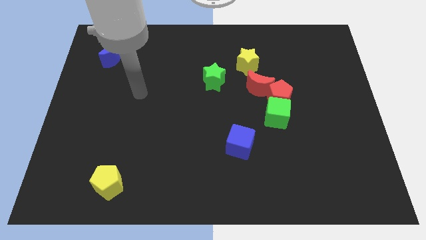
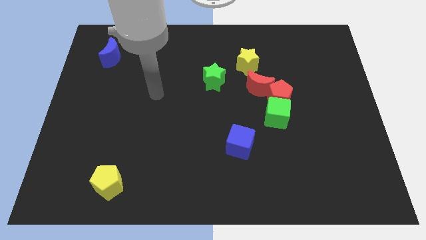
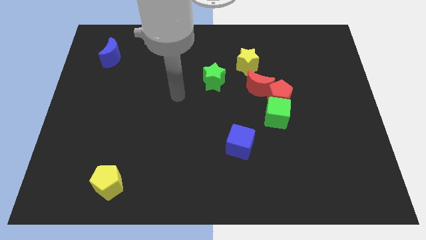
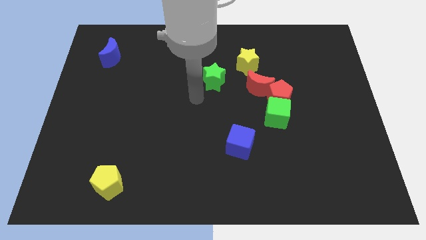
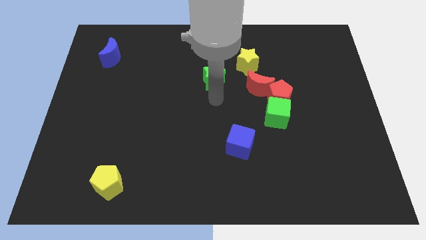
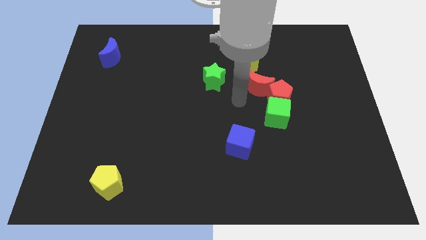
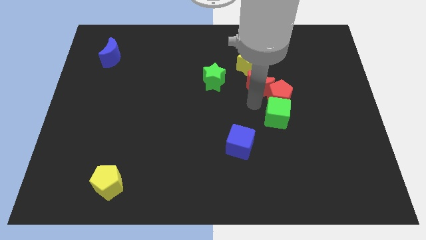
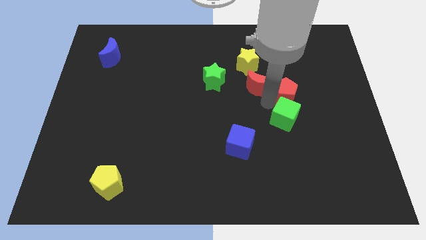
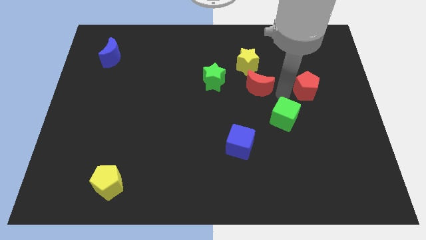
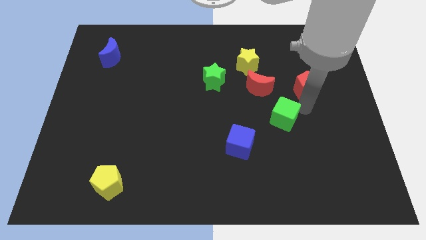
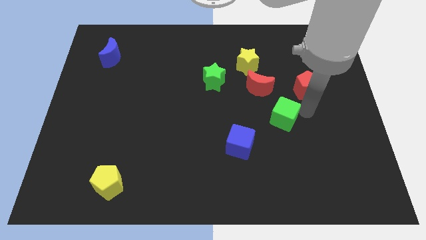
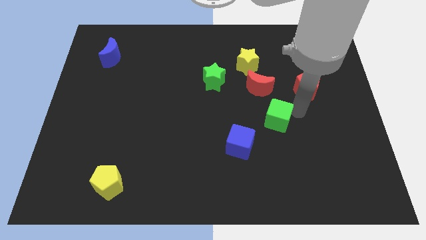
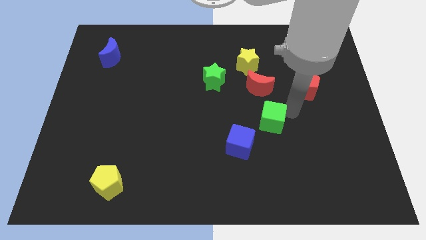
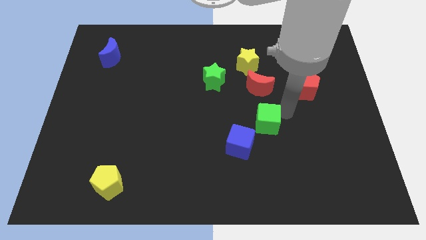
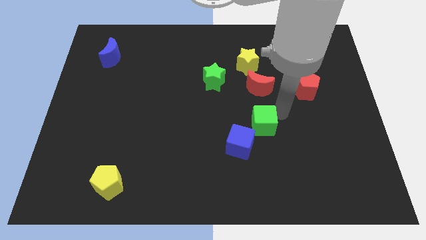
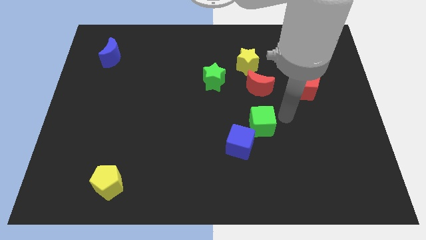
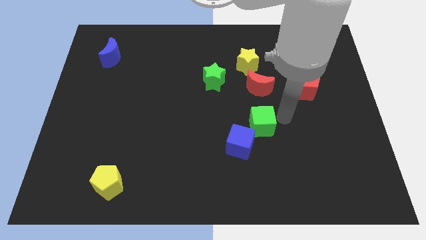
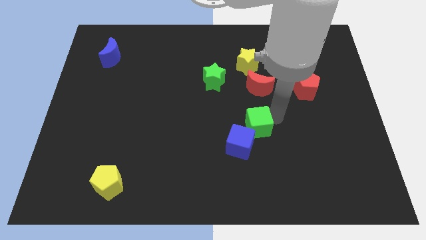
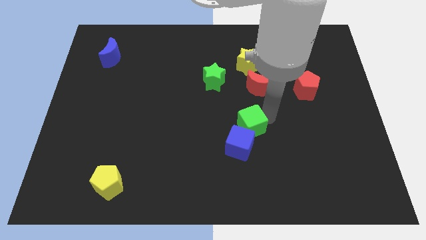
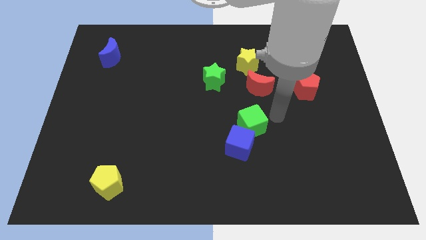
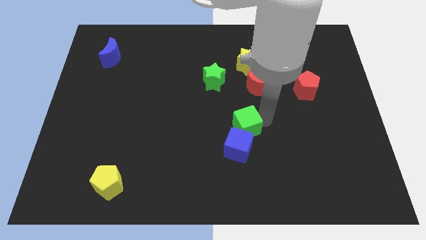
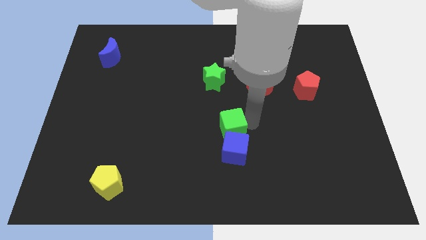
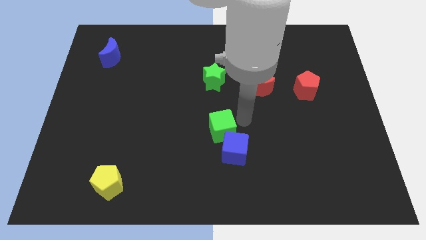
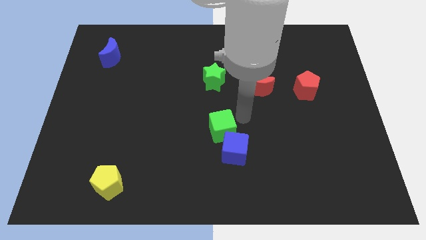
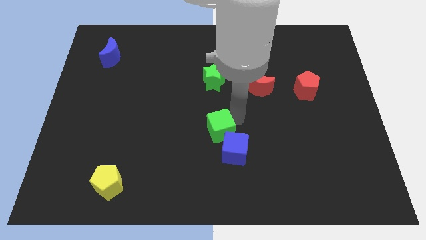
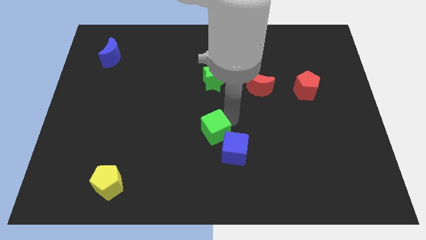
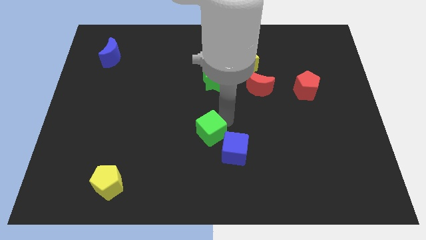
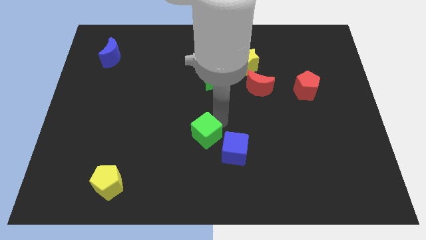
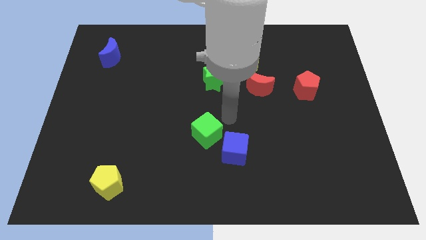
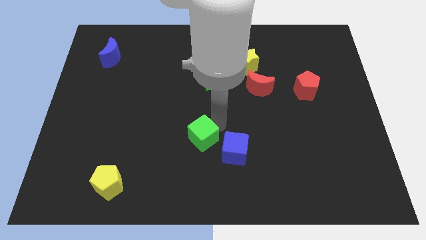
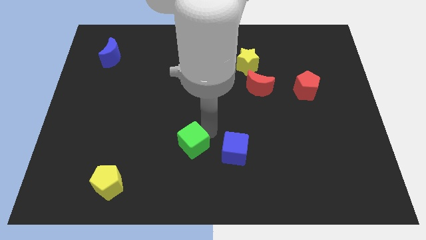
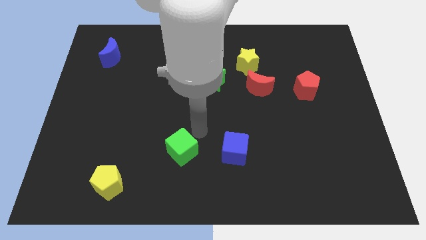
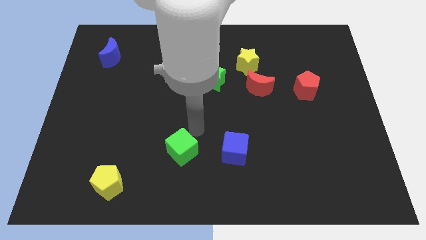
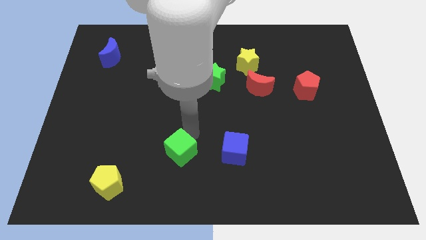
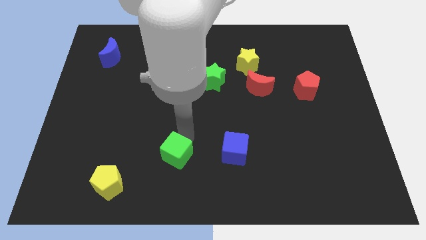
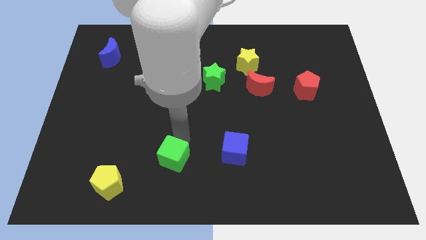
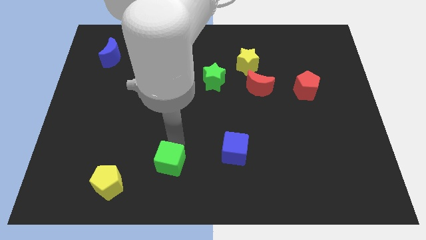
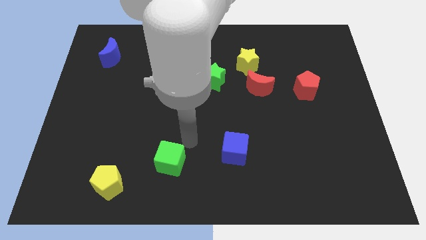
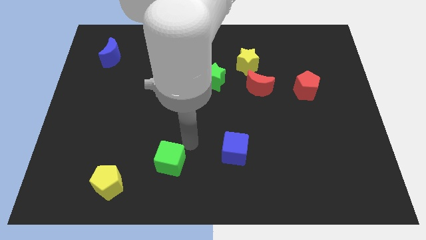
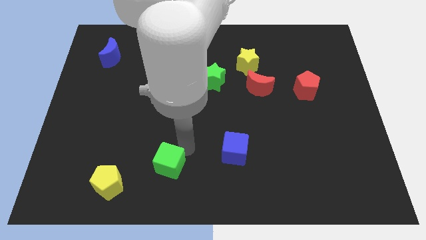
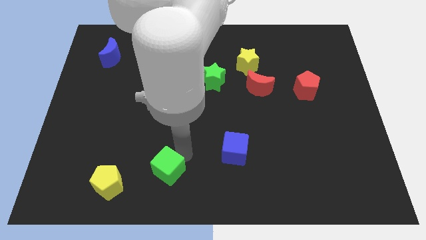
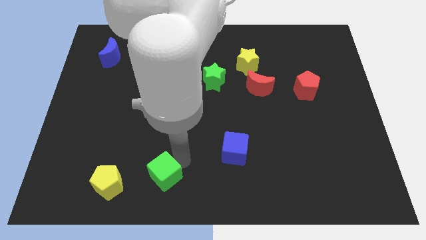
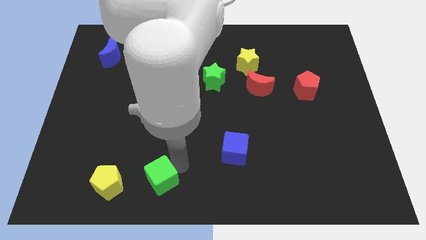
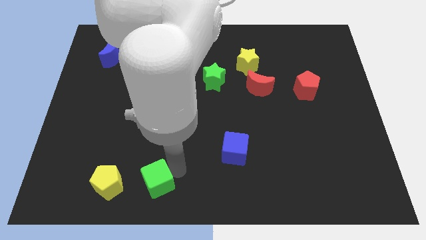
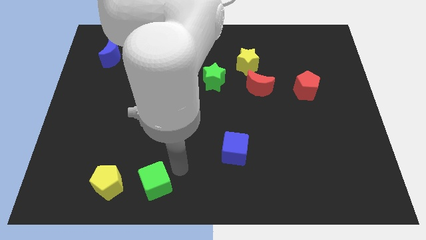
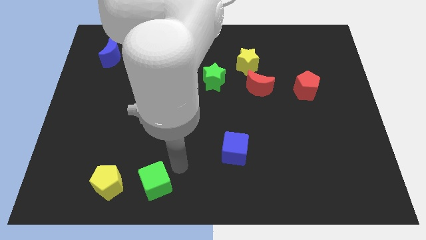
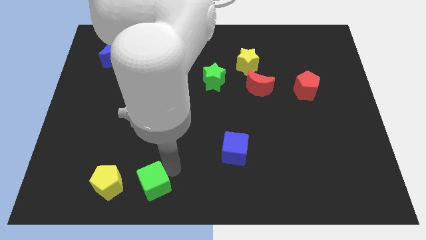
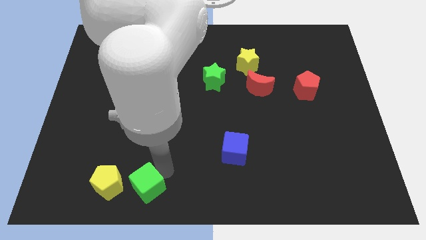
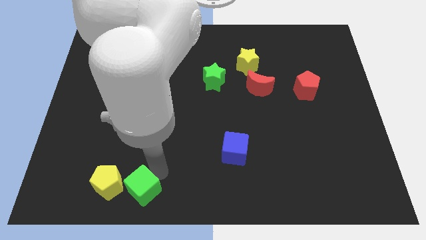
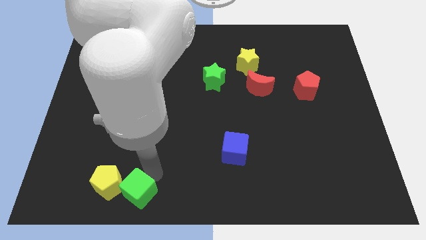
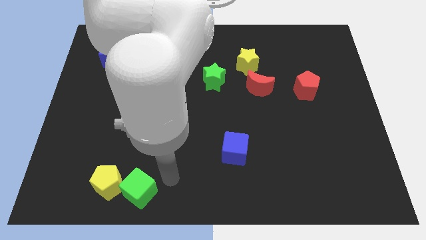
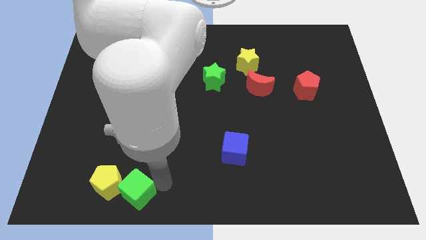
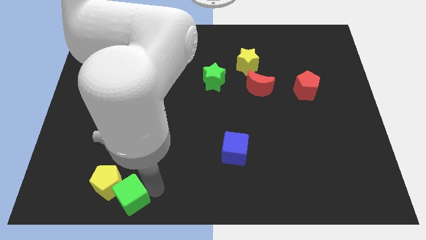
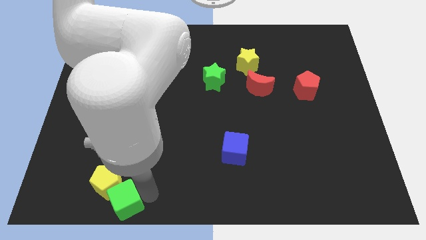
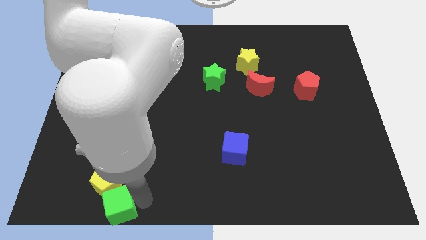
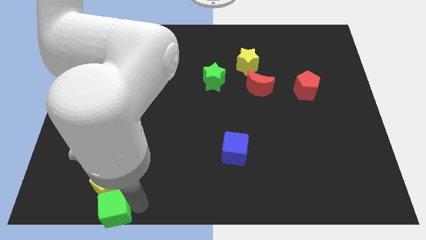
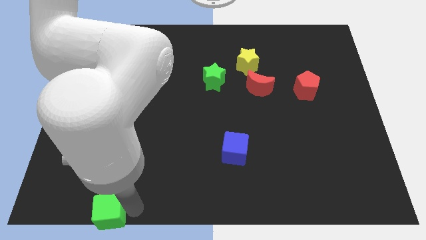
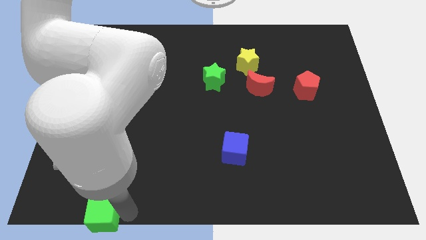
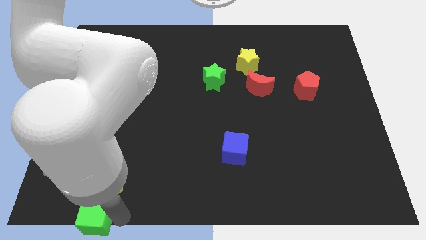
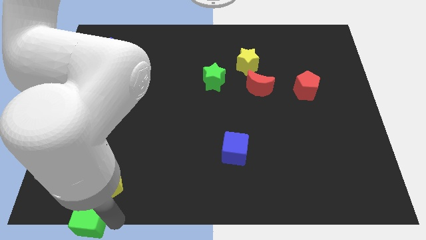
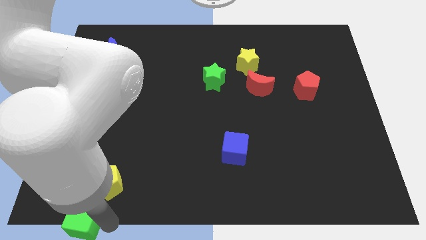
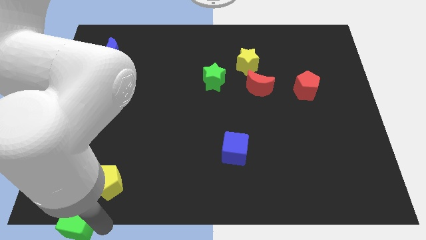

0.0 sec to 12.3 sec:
move the green cube to the lower left corner
